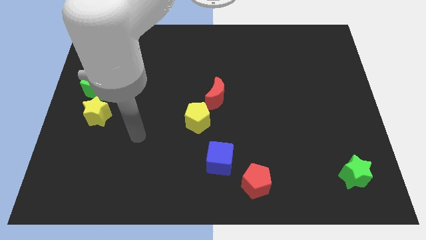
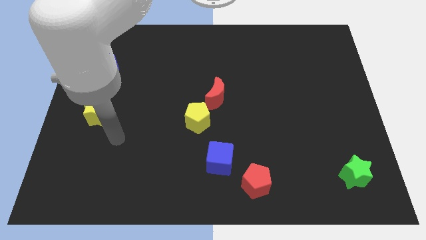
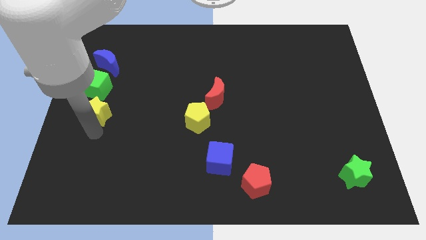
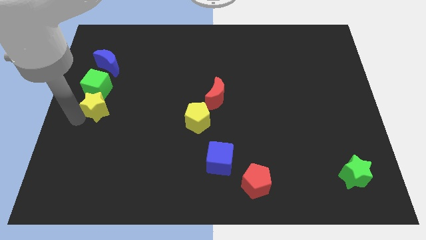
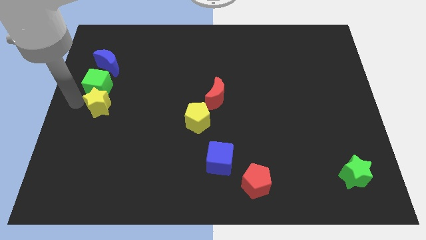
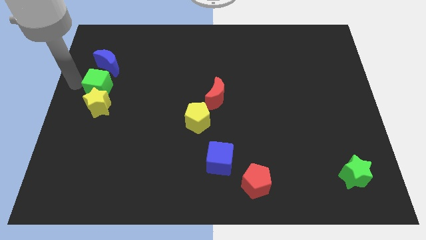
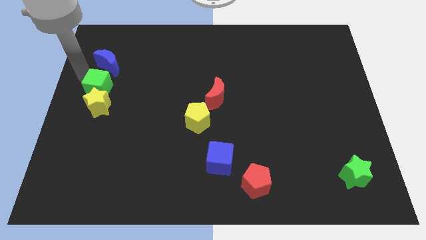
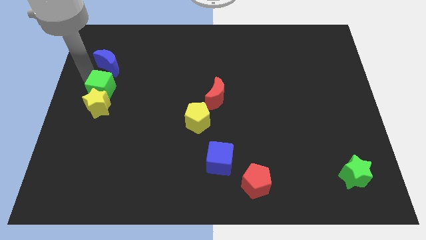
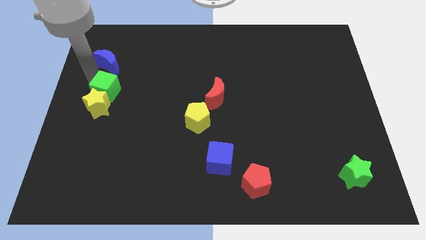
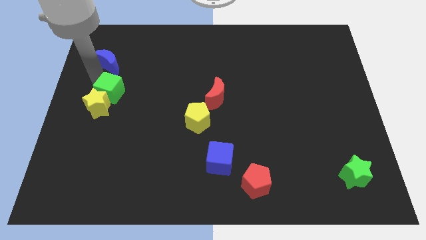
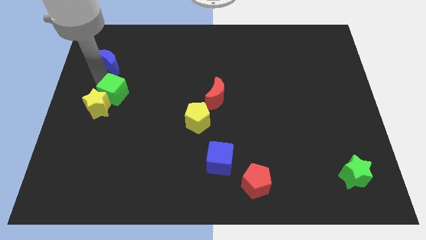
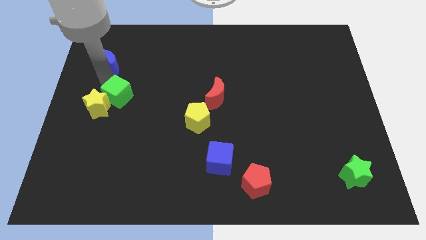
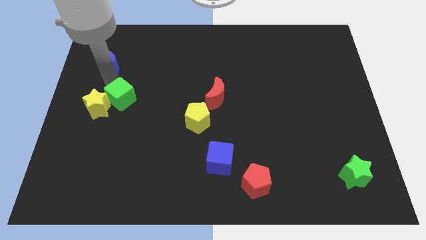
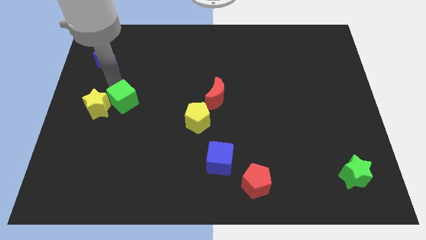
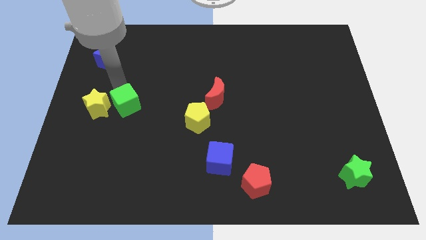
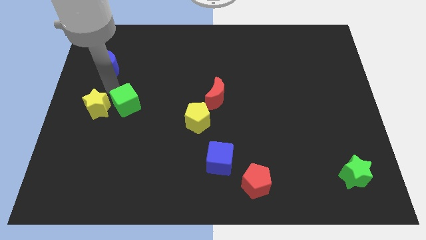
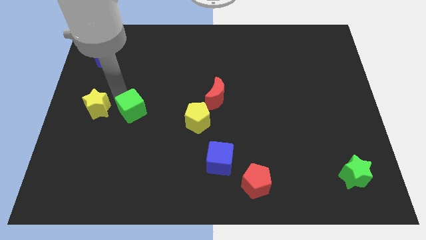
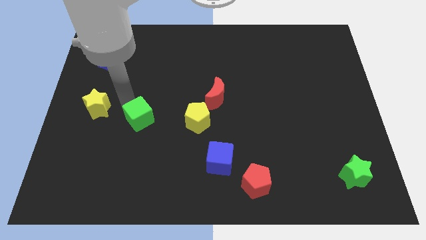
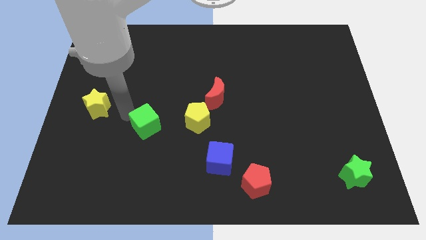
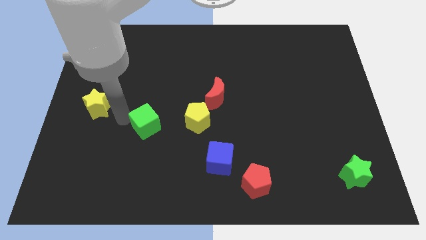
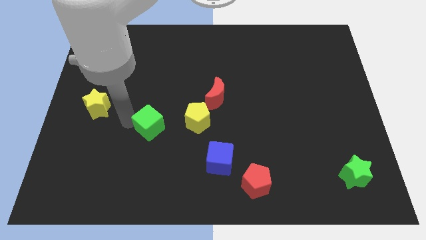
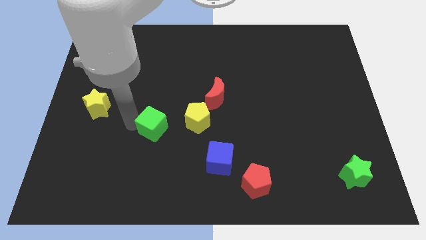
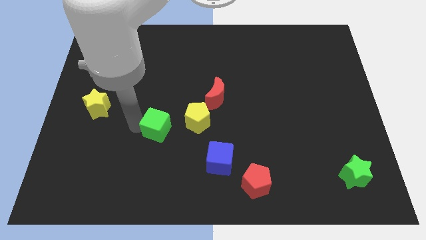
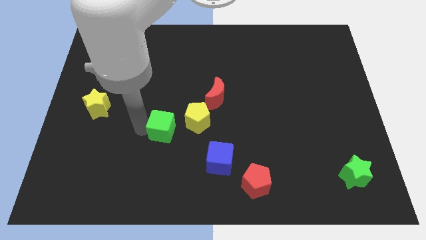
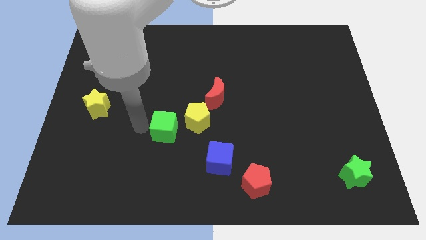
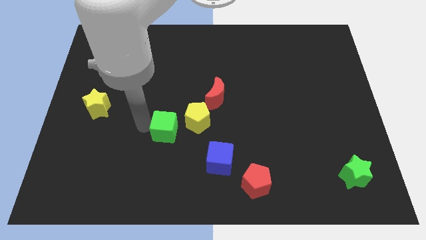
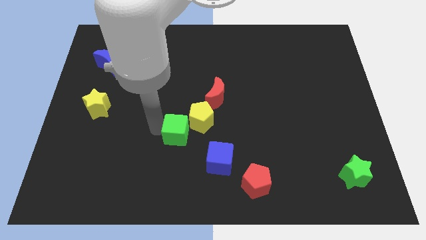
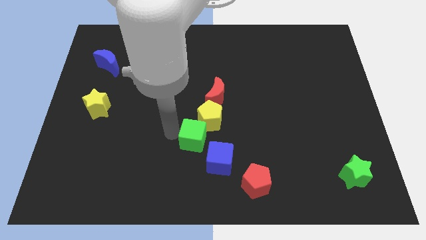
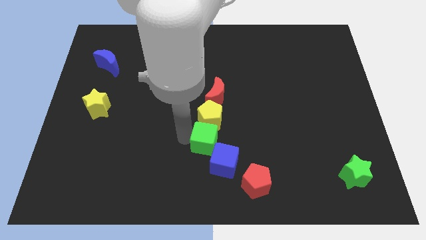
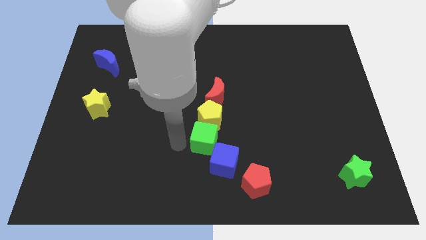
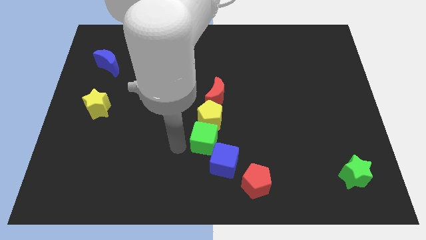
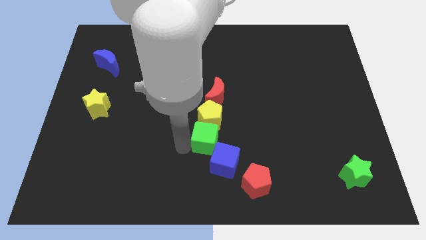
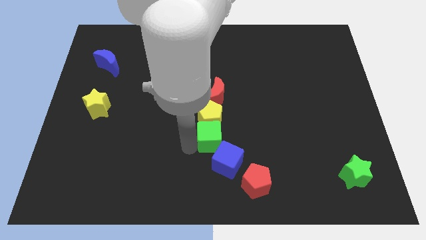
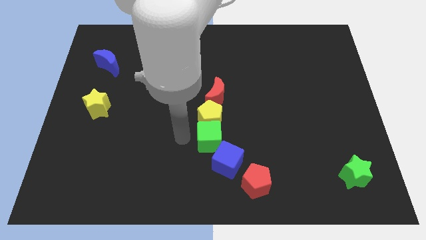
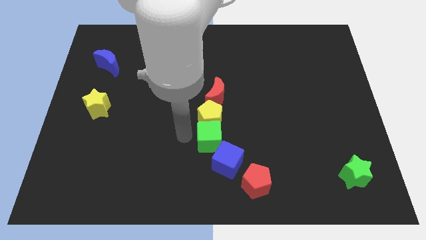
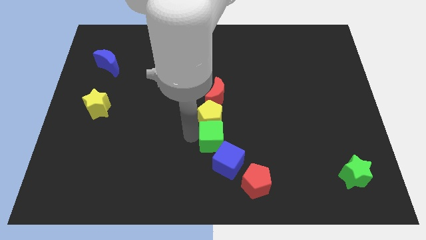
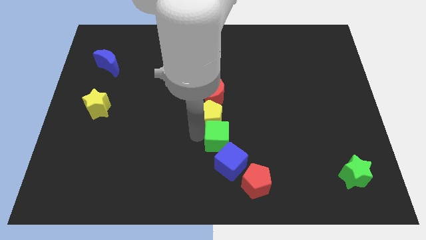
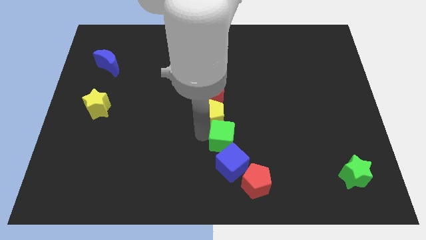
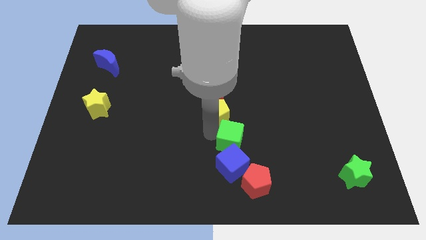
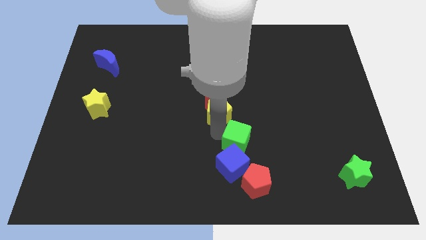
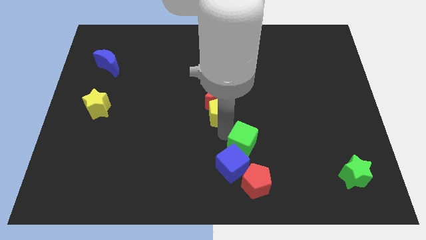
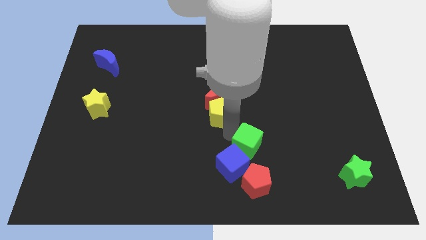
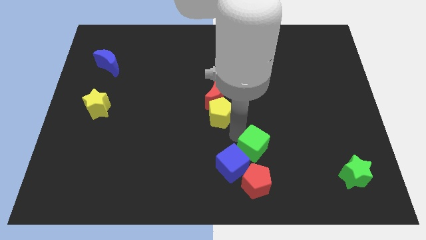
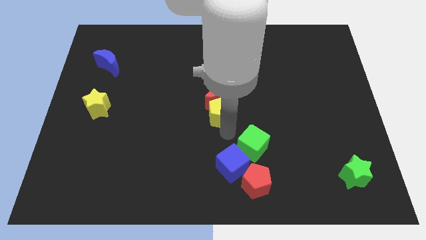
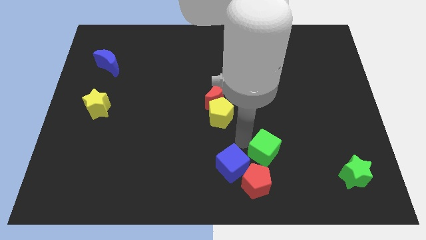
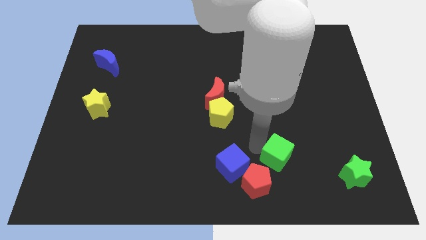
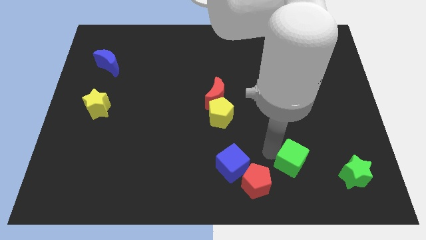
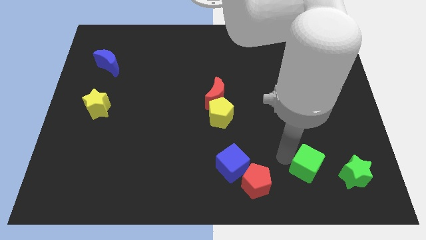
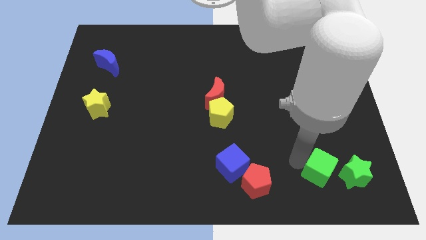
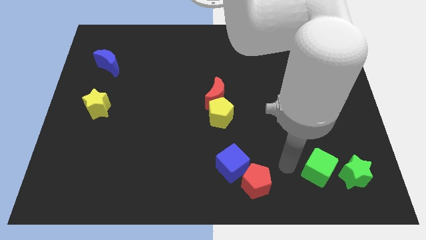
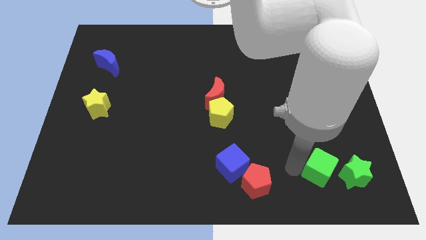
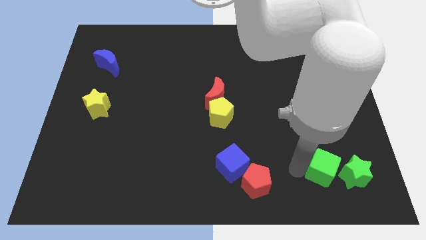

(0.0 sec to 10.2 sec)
push the green cube to the green star

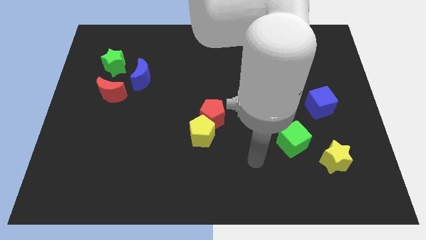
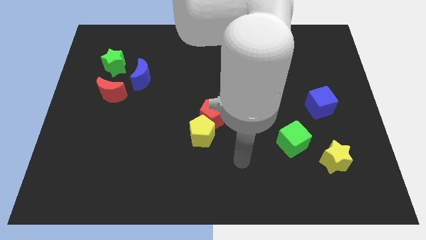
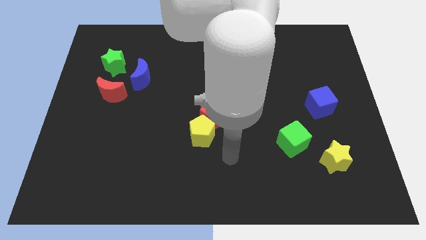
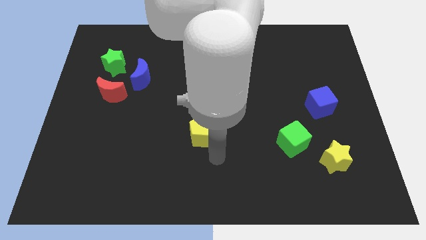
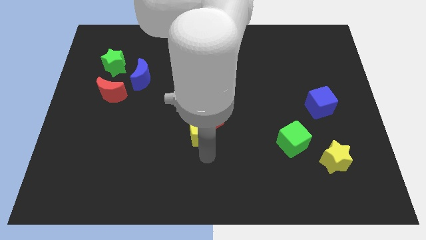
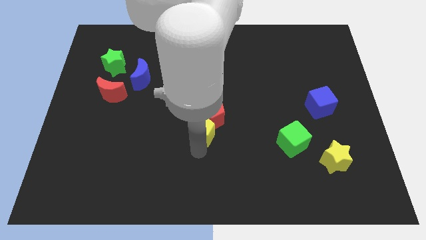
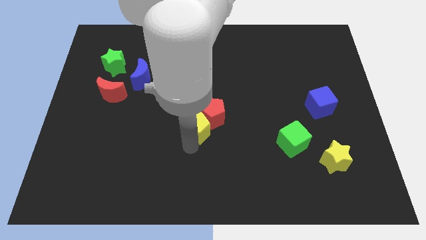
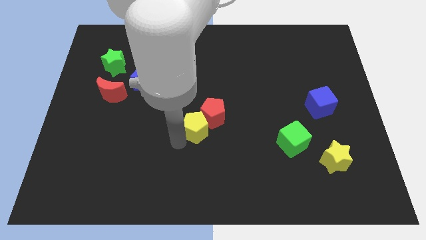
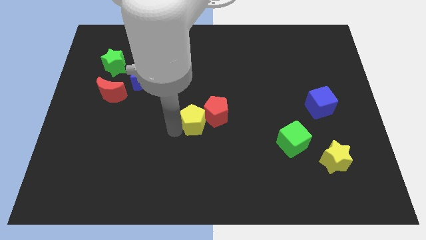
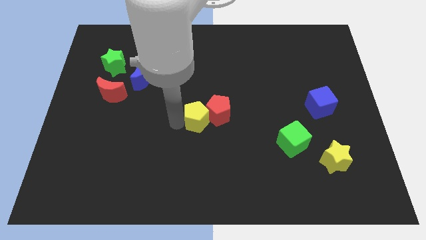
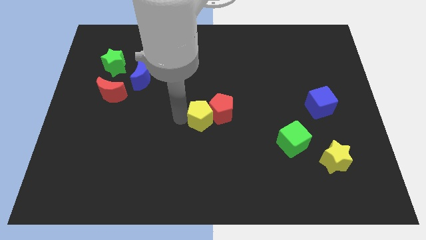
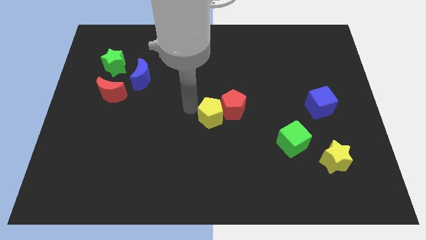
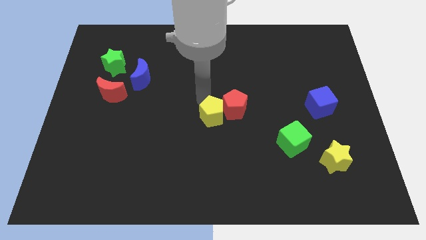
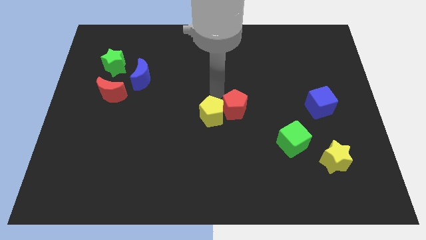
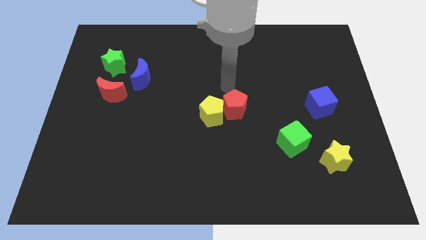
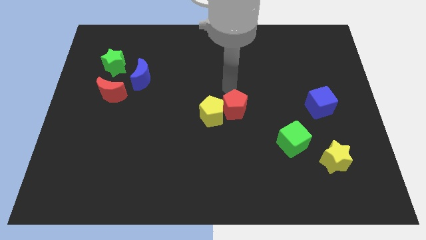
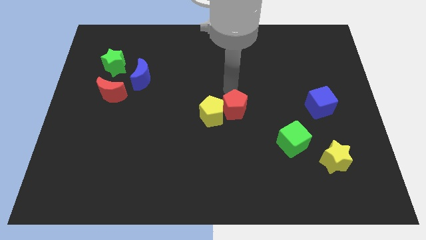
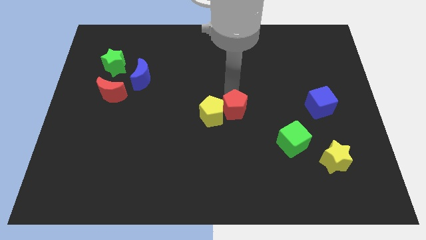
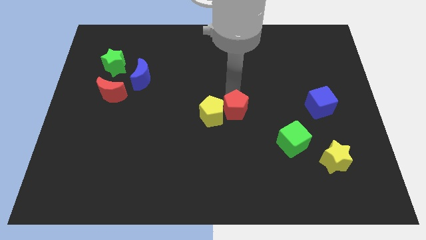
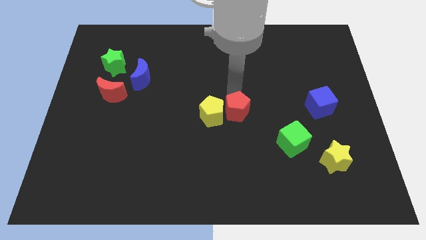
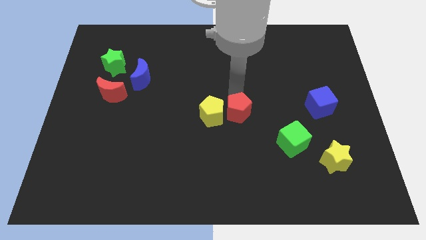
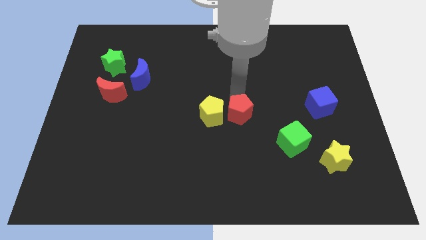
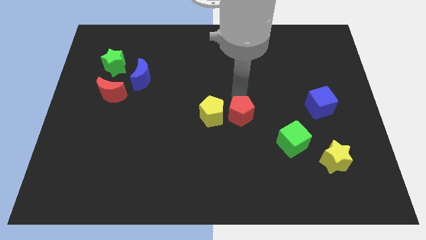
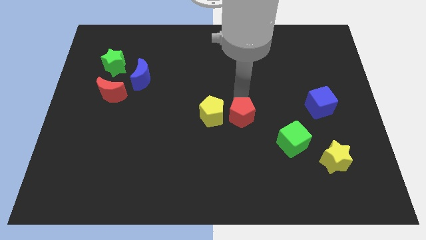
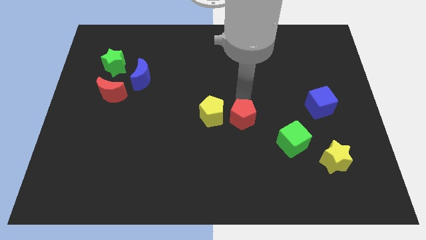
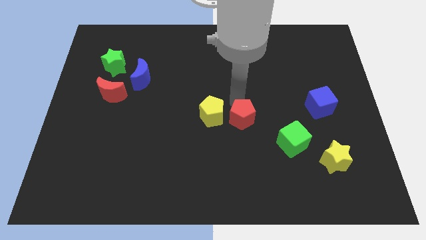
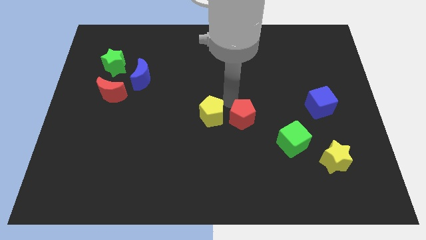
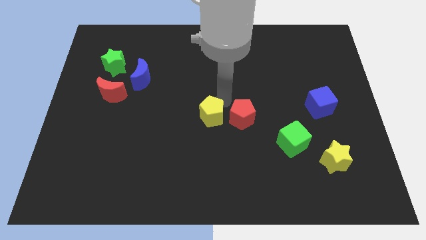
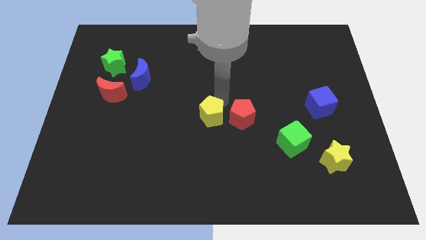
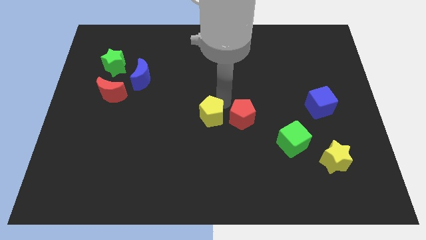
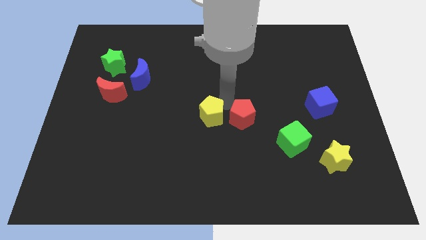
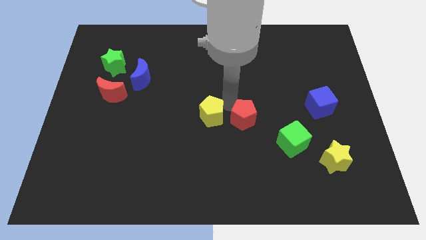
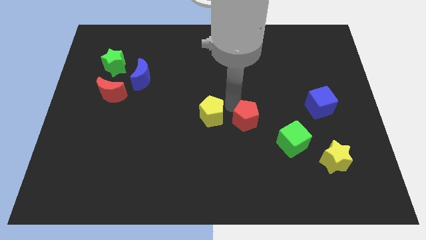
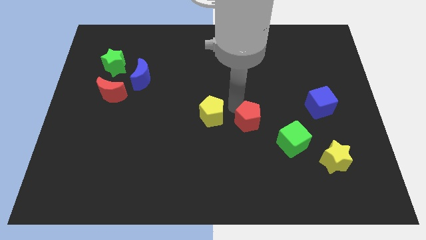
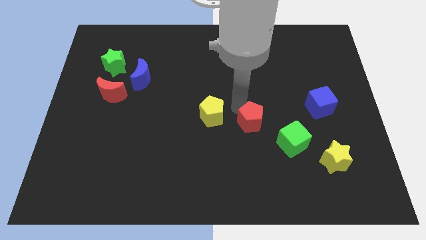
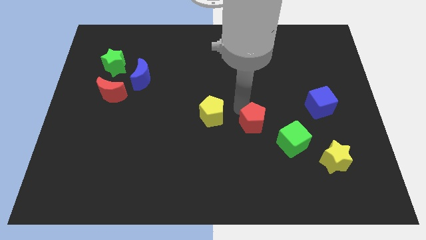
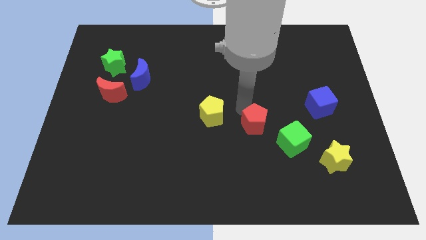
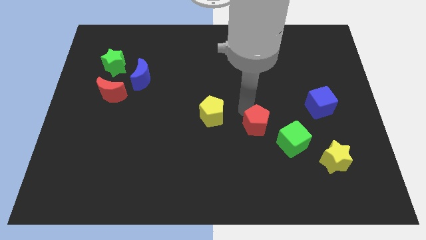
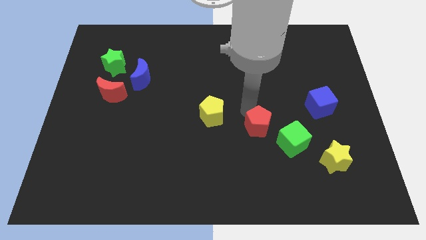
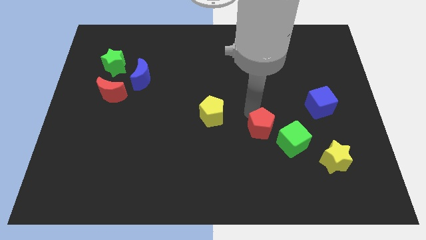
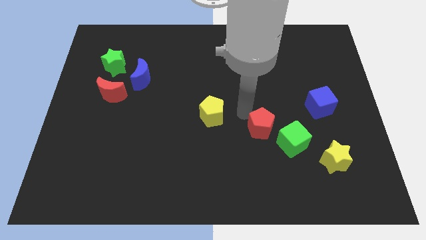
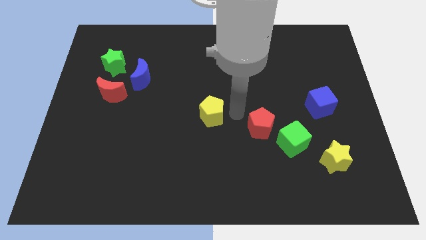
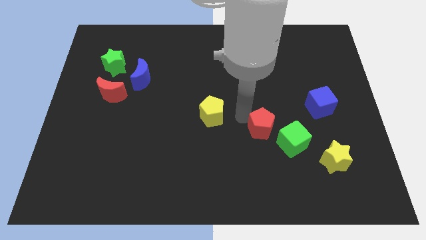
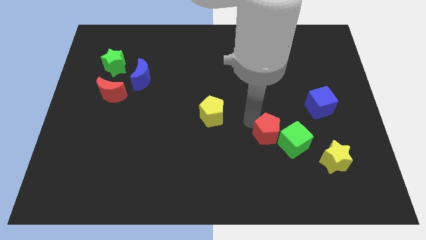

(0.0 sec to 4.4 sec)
push the red pentagon close to the green cube
